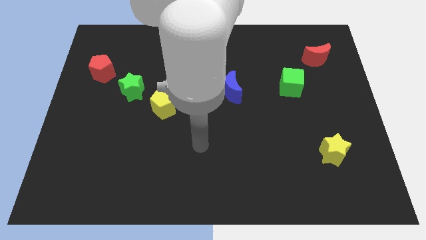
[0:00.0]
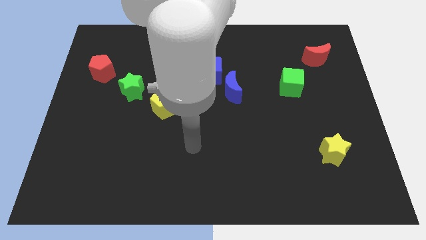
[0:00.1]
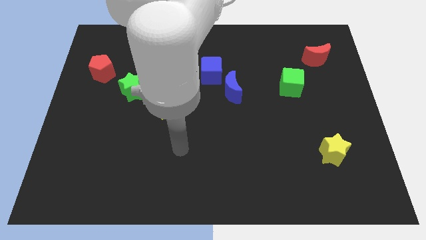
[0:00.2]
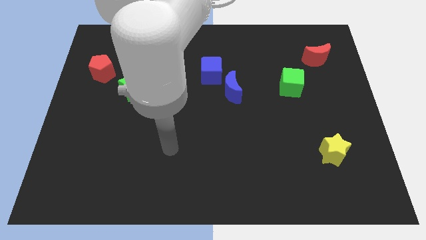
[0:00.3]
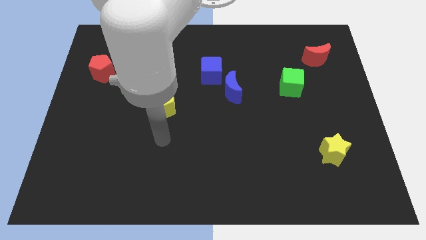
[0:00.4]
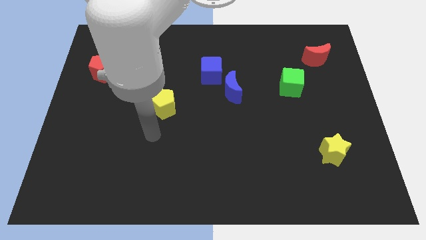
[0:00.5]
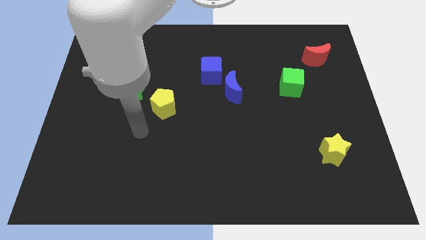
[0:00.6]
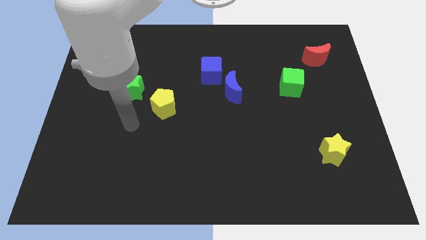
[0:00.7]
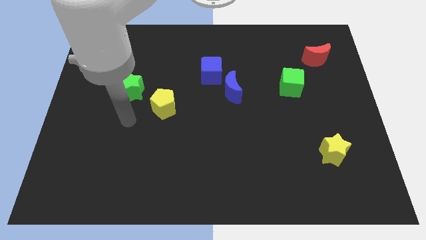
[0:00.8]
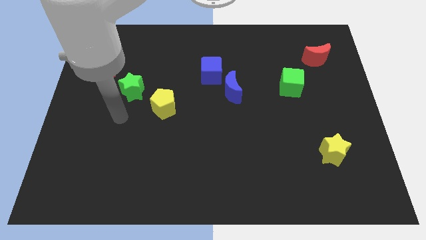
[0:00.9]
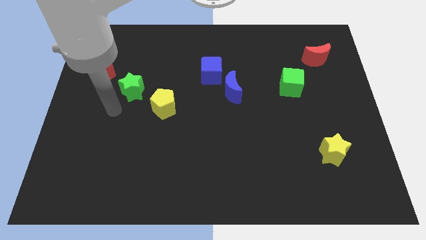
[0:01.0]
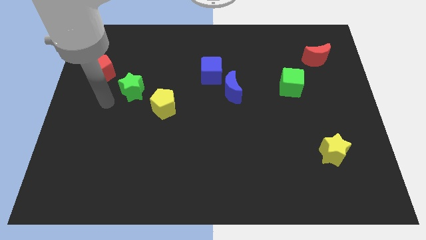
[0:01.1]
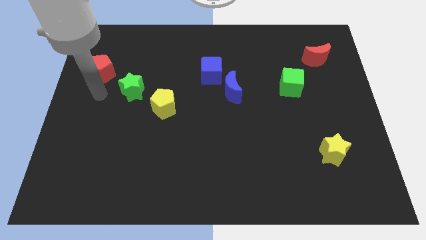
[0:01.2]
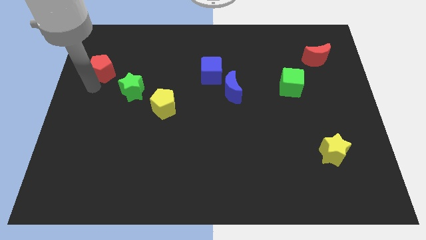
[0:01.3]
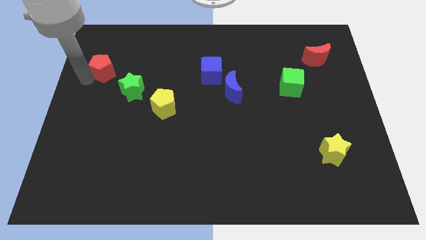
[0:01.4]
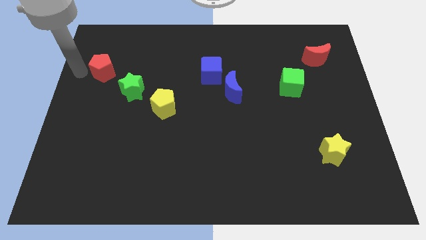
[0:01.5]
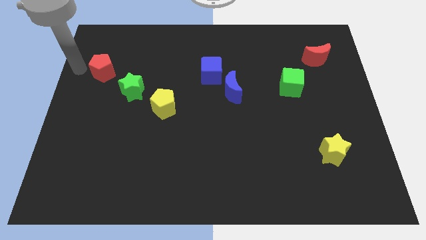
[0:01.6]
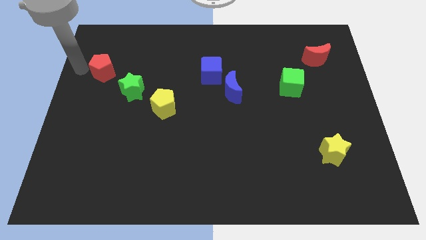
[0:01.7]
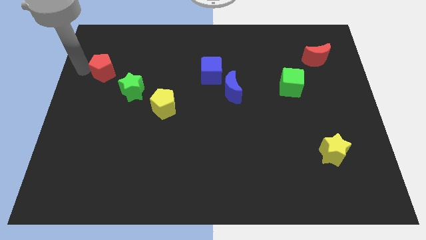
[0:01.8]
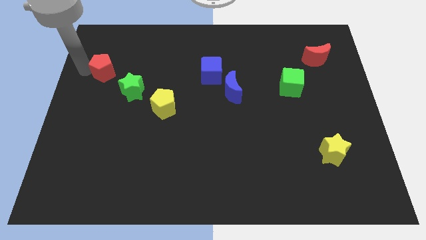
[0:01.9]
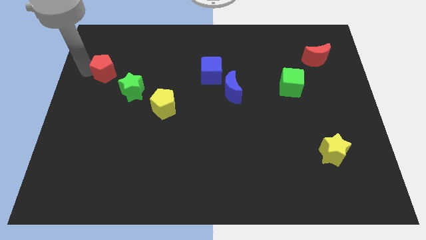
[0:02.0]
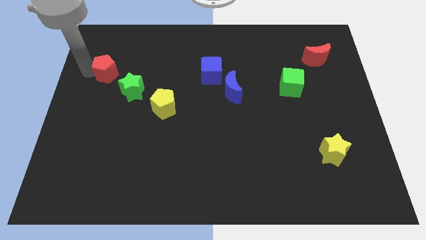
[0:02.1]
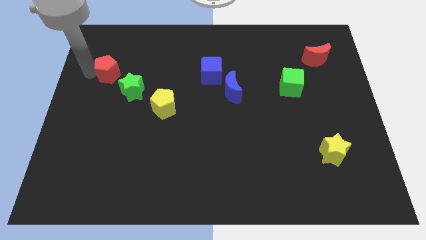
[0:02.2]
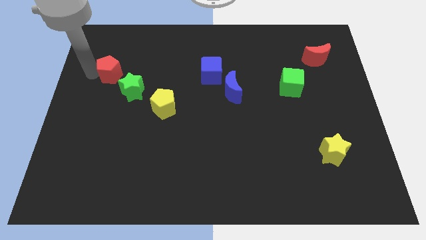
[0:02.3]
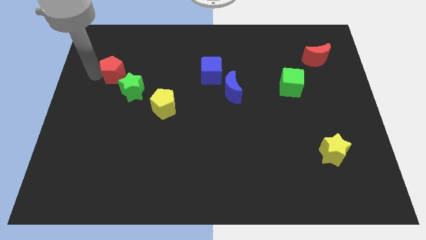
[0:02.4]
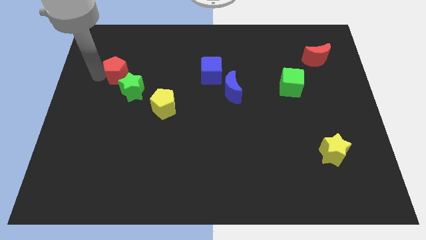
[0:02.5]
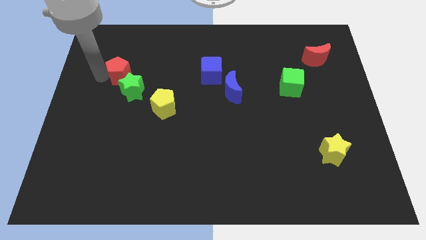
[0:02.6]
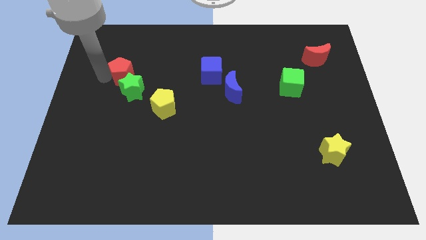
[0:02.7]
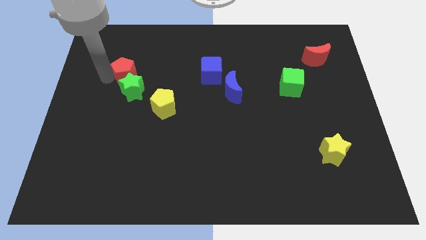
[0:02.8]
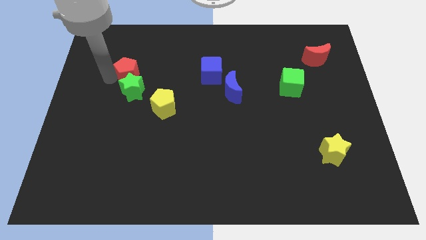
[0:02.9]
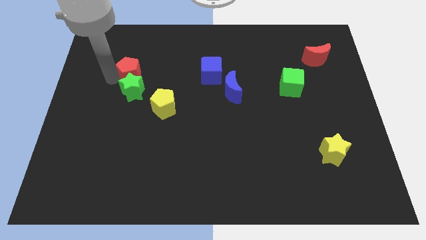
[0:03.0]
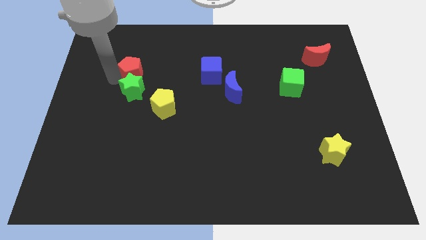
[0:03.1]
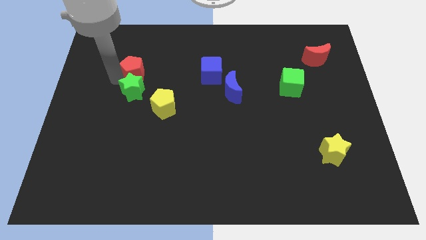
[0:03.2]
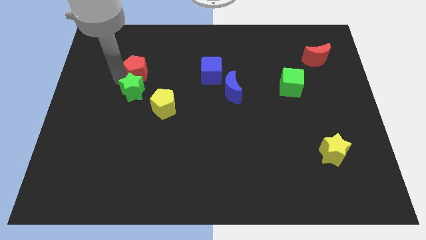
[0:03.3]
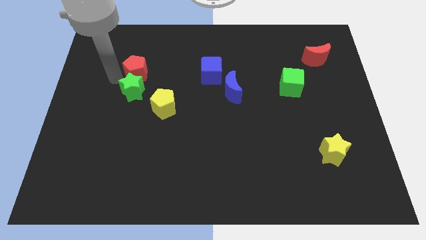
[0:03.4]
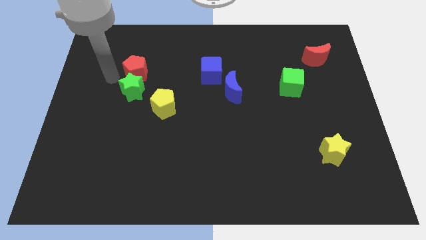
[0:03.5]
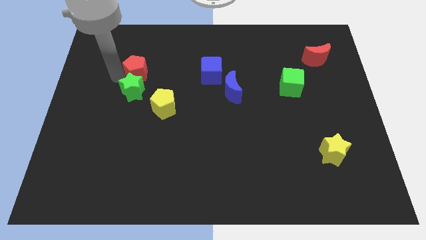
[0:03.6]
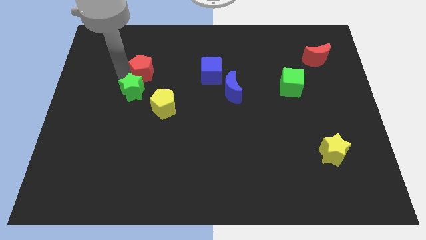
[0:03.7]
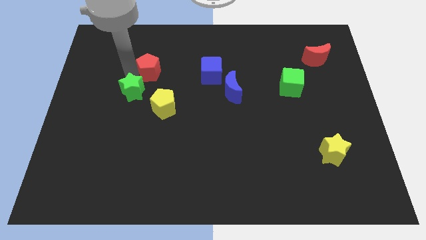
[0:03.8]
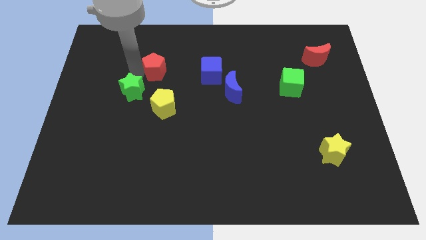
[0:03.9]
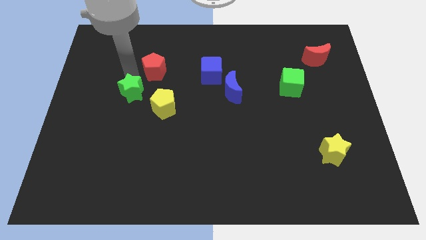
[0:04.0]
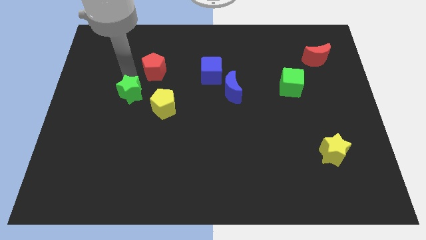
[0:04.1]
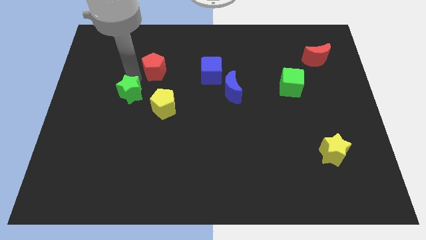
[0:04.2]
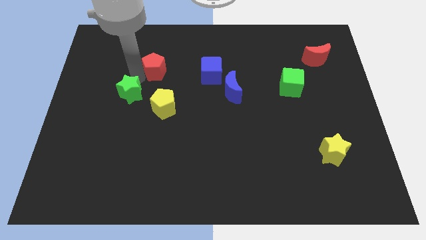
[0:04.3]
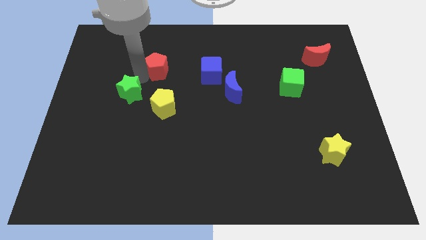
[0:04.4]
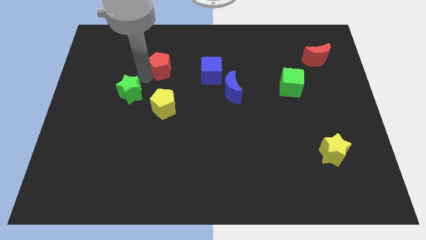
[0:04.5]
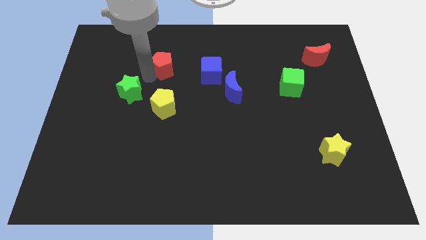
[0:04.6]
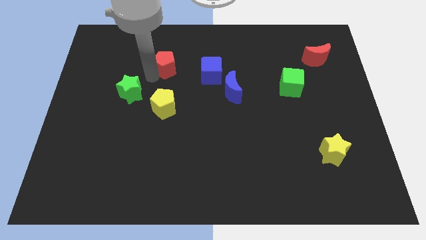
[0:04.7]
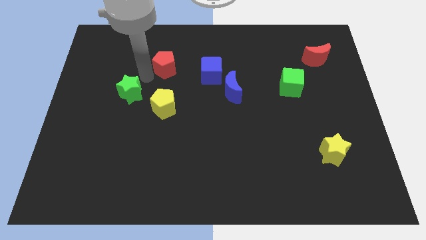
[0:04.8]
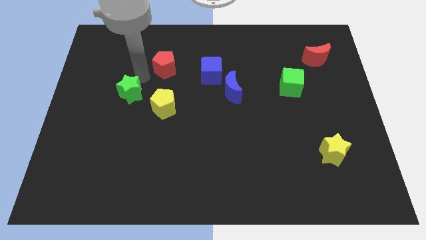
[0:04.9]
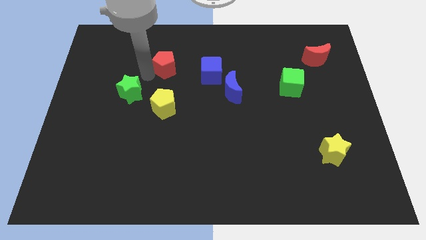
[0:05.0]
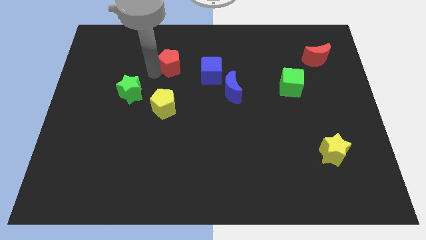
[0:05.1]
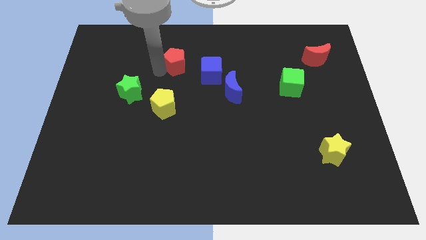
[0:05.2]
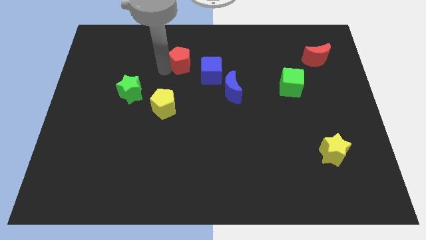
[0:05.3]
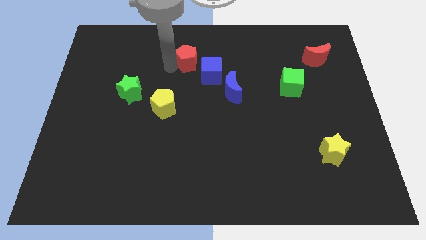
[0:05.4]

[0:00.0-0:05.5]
slide the red pentagon to the right

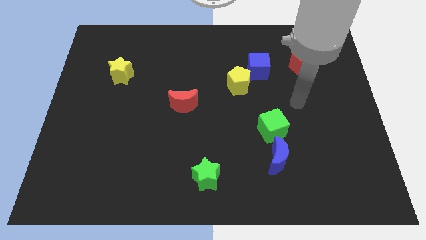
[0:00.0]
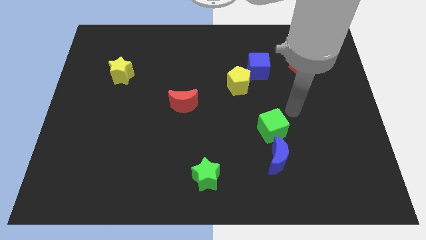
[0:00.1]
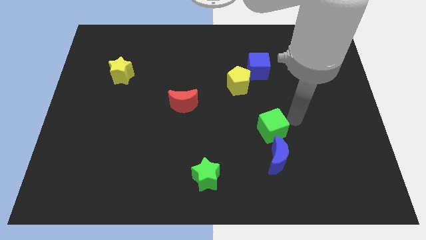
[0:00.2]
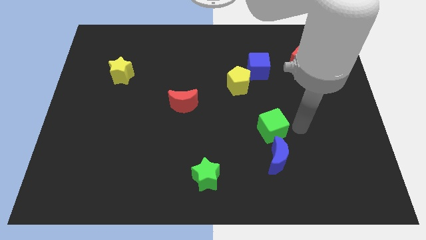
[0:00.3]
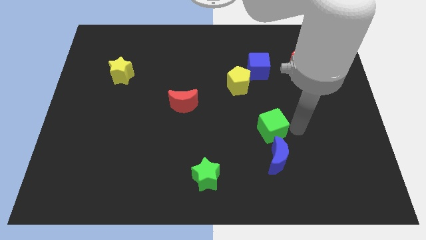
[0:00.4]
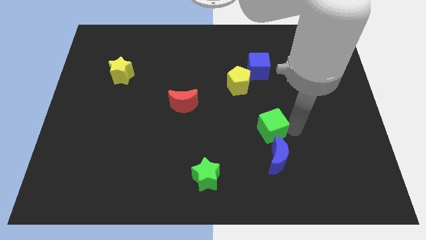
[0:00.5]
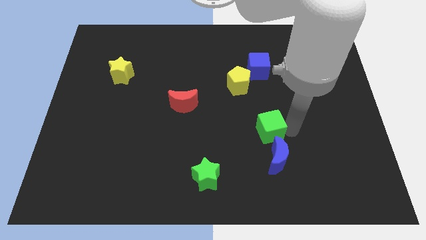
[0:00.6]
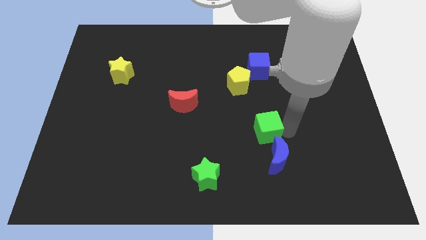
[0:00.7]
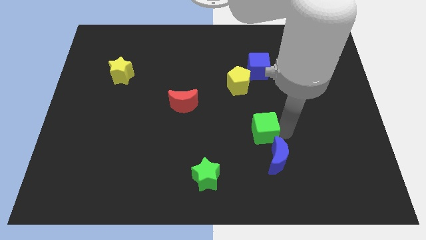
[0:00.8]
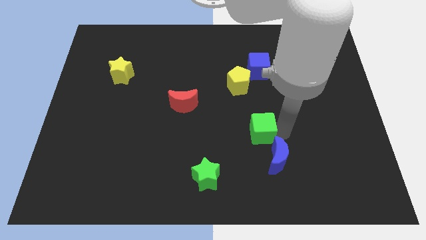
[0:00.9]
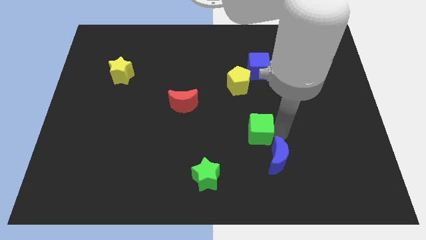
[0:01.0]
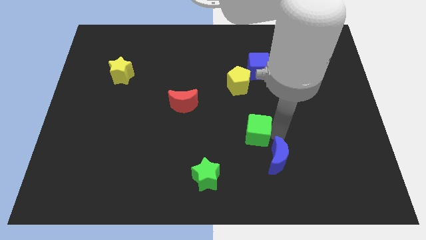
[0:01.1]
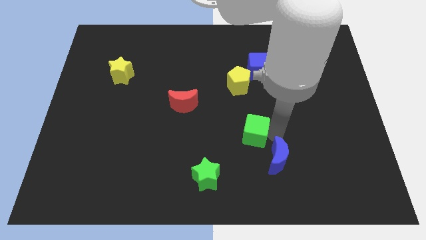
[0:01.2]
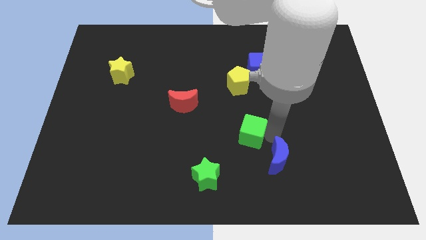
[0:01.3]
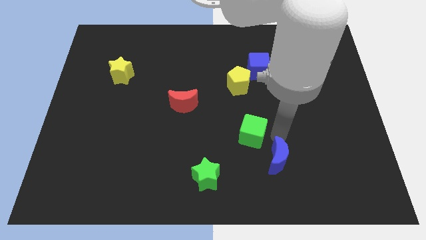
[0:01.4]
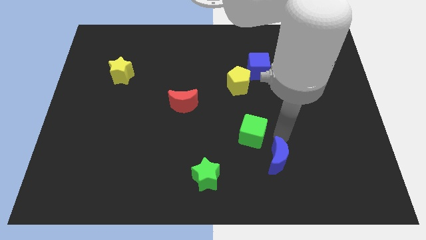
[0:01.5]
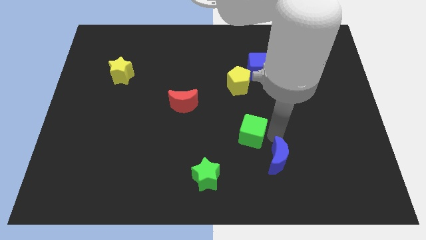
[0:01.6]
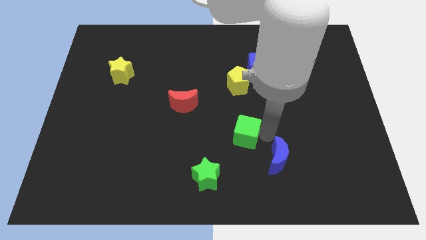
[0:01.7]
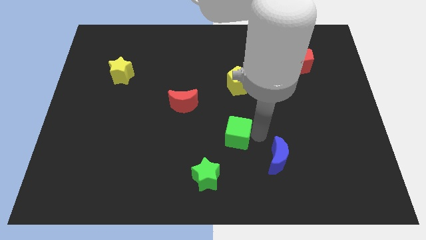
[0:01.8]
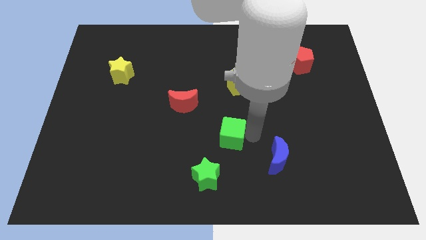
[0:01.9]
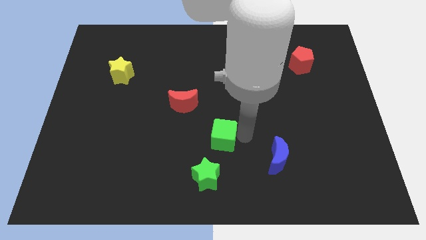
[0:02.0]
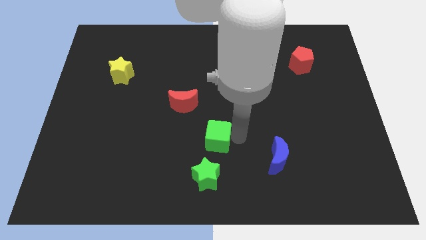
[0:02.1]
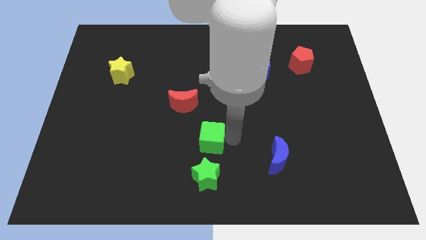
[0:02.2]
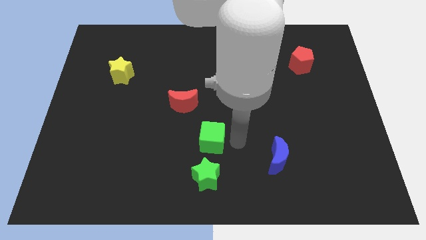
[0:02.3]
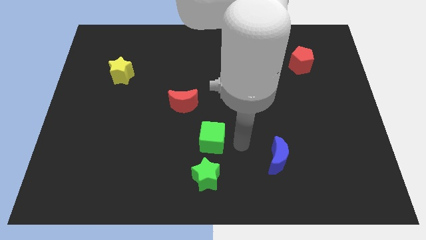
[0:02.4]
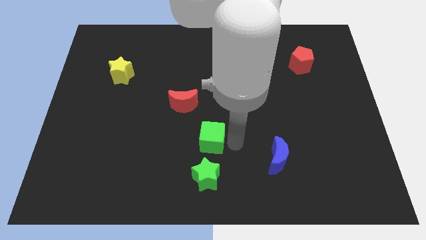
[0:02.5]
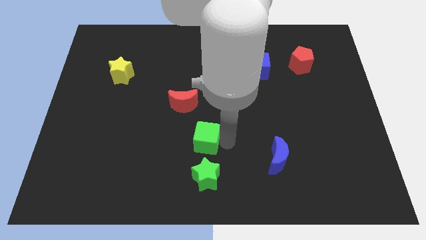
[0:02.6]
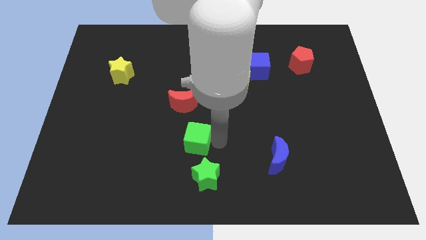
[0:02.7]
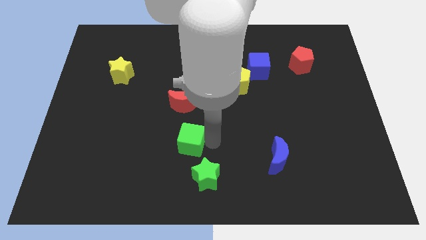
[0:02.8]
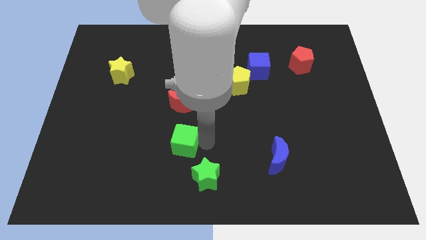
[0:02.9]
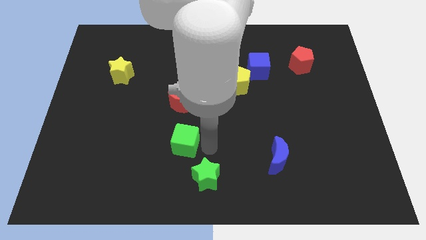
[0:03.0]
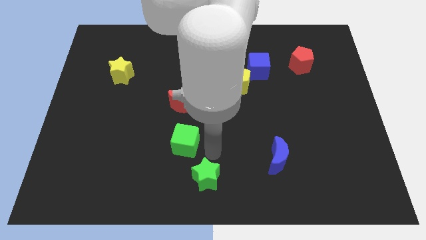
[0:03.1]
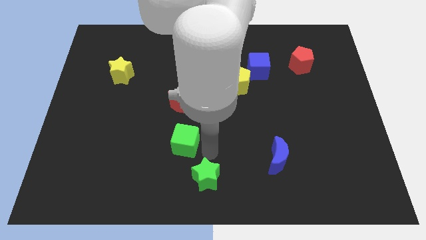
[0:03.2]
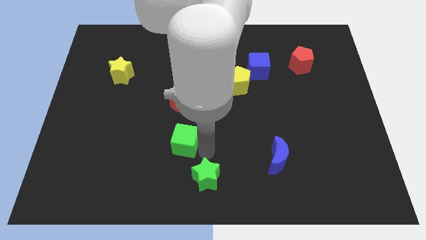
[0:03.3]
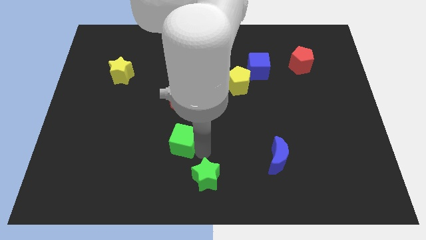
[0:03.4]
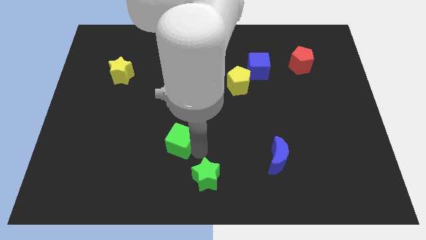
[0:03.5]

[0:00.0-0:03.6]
move the green cube to the left
